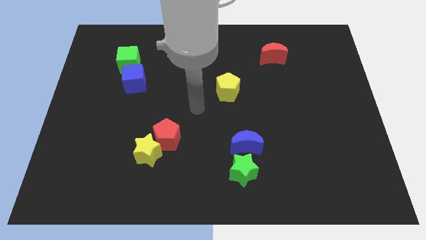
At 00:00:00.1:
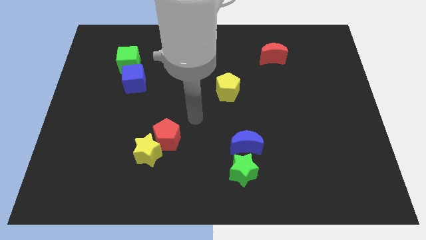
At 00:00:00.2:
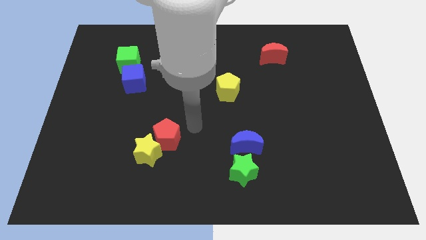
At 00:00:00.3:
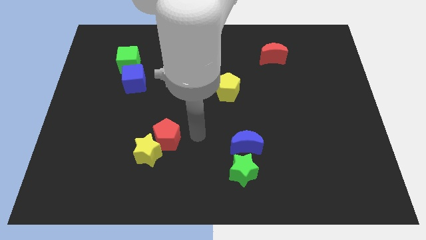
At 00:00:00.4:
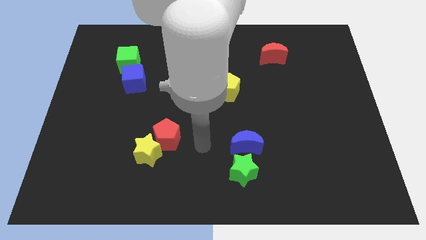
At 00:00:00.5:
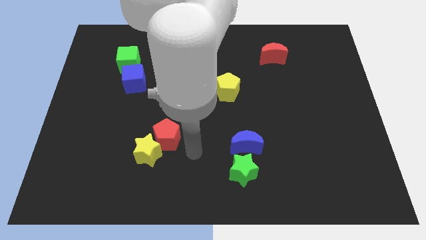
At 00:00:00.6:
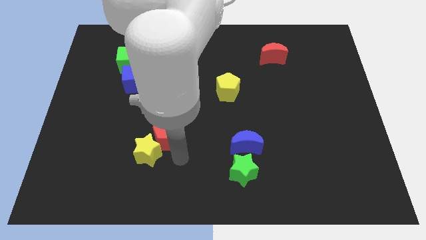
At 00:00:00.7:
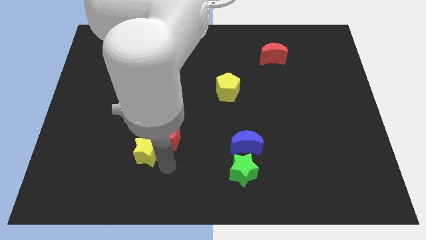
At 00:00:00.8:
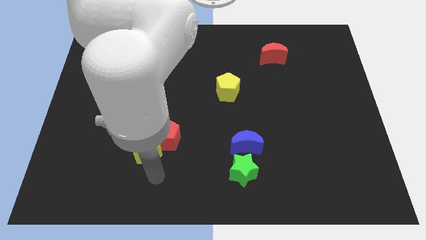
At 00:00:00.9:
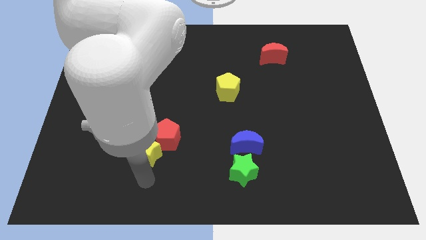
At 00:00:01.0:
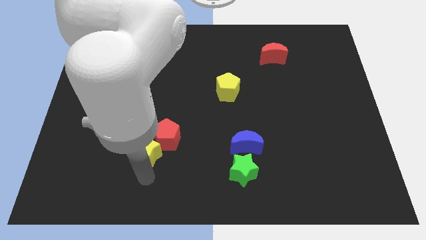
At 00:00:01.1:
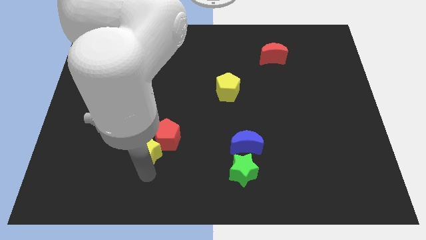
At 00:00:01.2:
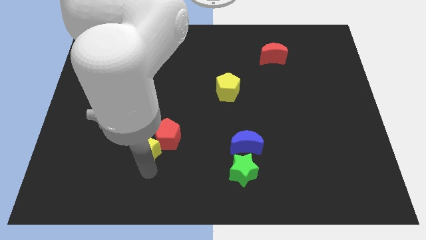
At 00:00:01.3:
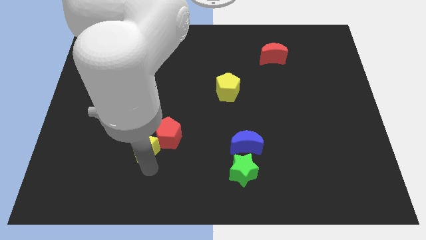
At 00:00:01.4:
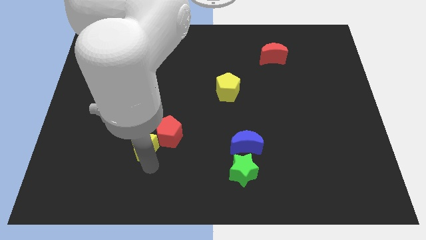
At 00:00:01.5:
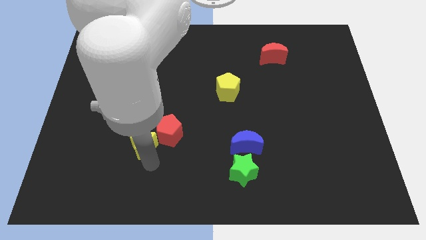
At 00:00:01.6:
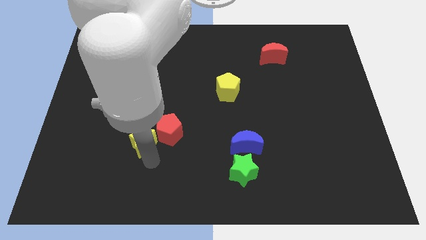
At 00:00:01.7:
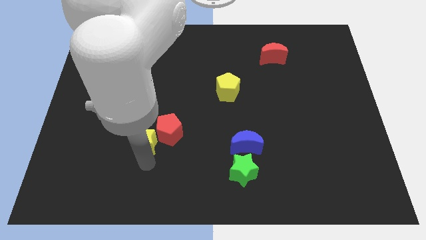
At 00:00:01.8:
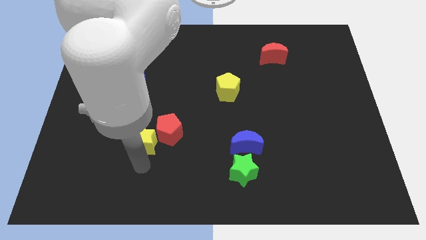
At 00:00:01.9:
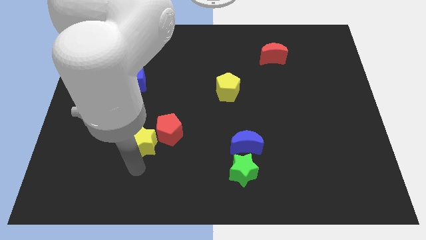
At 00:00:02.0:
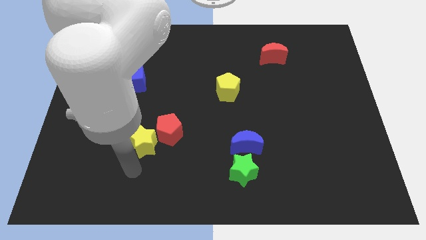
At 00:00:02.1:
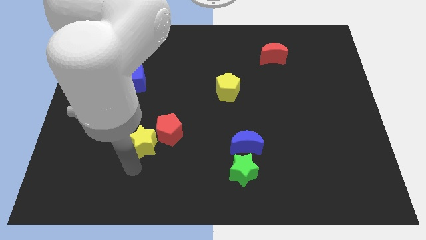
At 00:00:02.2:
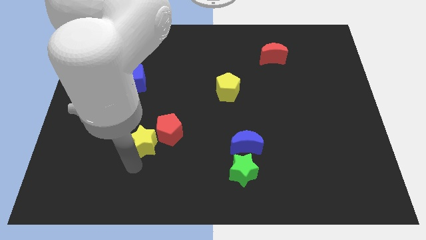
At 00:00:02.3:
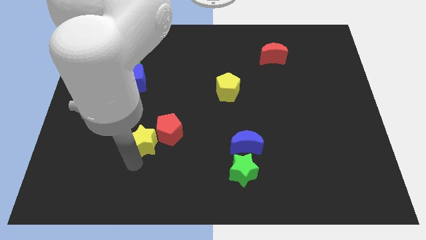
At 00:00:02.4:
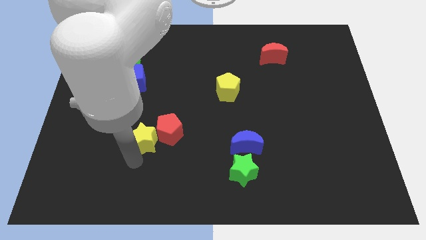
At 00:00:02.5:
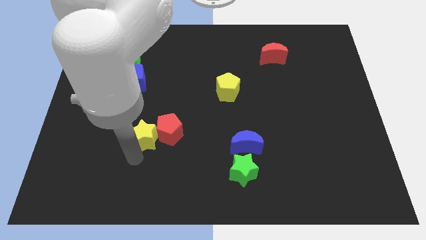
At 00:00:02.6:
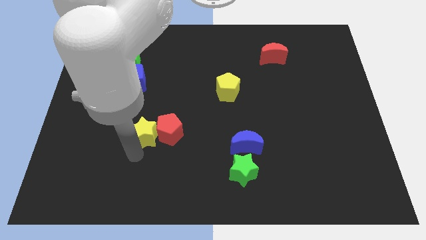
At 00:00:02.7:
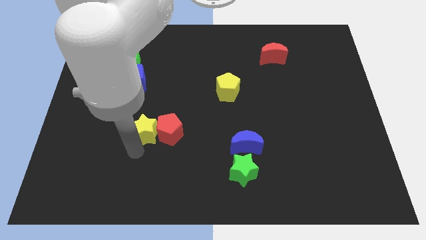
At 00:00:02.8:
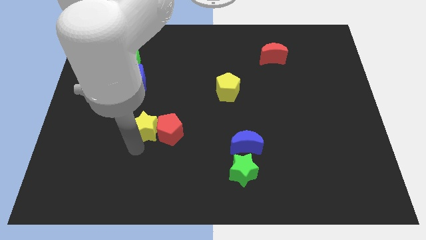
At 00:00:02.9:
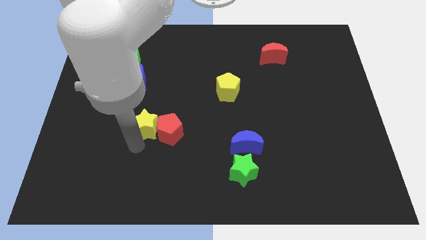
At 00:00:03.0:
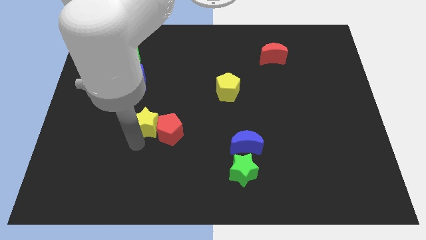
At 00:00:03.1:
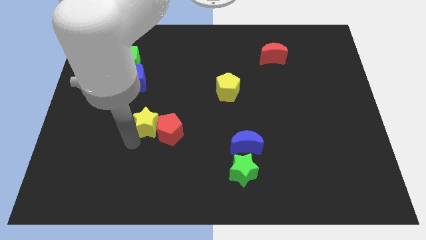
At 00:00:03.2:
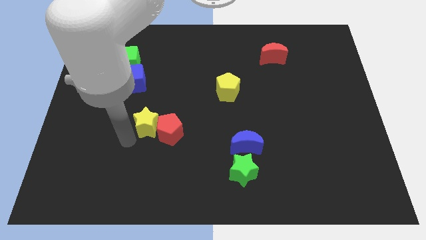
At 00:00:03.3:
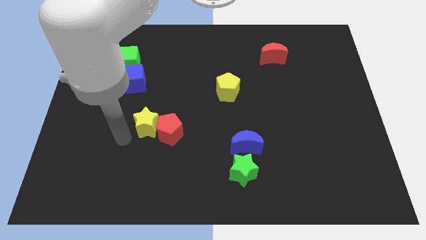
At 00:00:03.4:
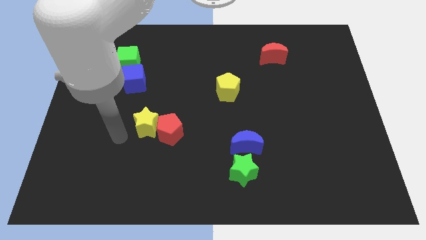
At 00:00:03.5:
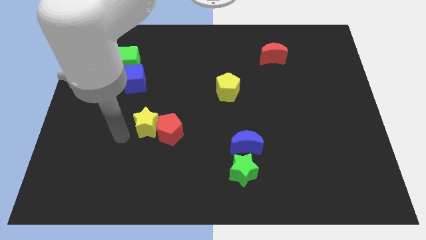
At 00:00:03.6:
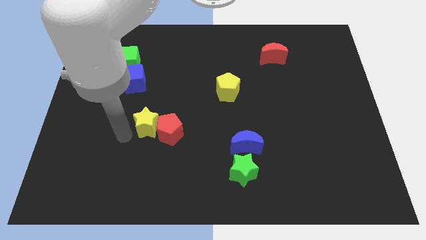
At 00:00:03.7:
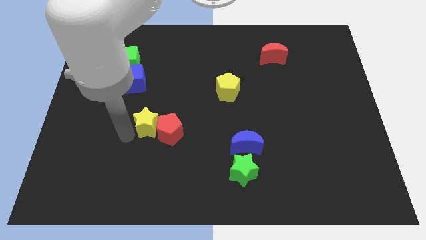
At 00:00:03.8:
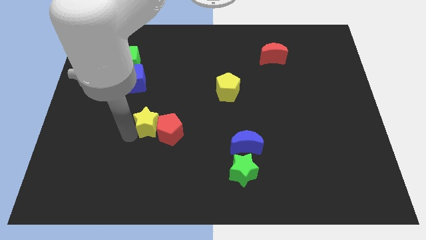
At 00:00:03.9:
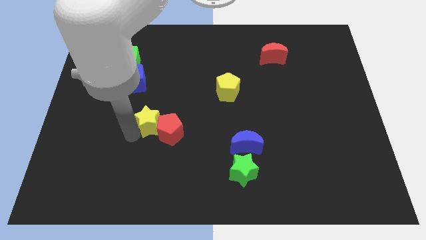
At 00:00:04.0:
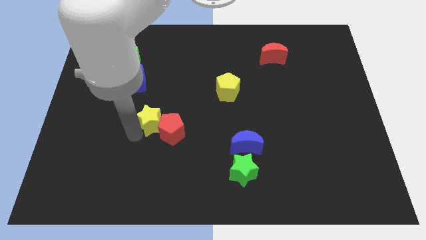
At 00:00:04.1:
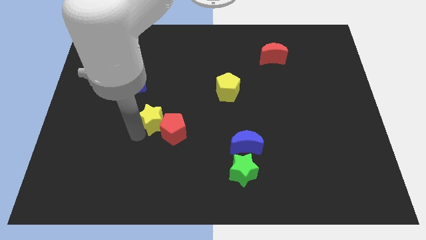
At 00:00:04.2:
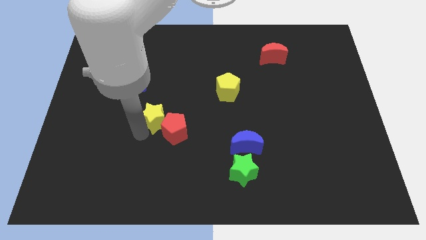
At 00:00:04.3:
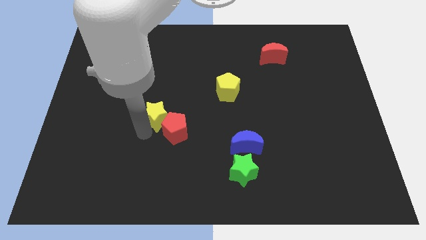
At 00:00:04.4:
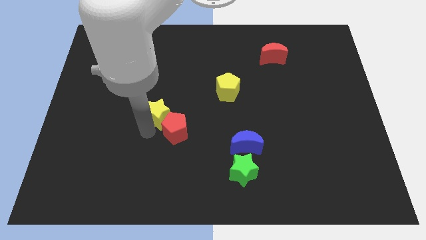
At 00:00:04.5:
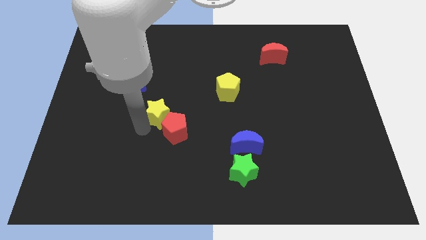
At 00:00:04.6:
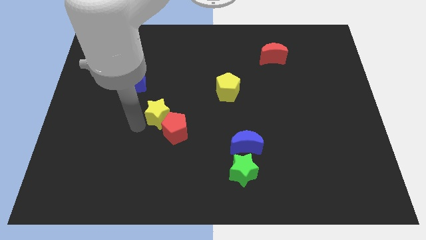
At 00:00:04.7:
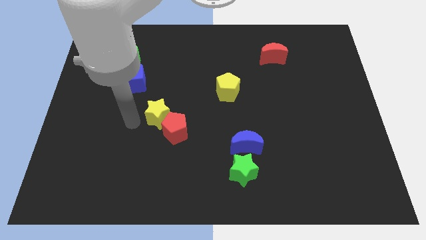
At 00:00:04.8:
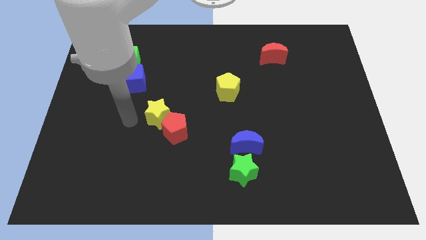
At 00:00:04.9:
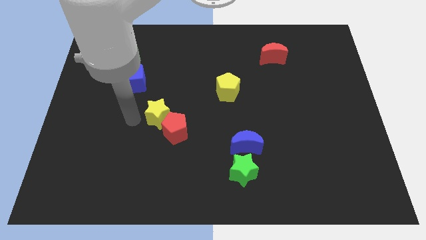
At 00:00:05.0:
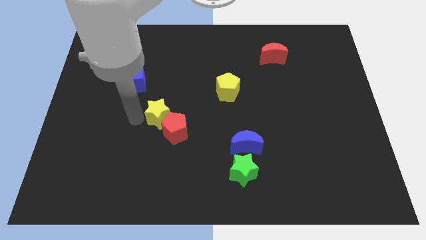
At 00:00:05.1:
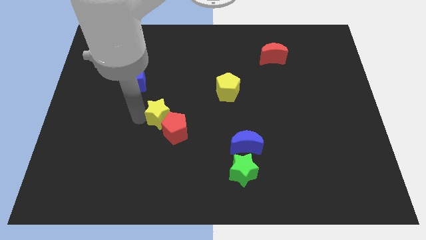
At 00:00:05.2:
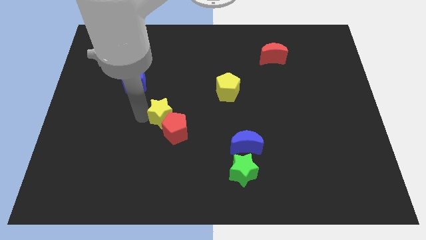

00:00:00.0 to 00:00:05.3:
slide the yellow star upwards and right diagonally somewhat

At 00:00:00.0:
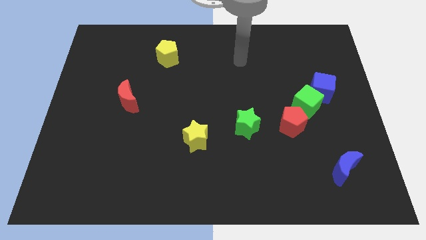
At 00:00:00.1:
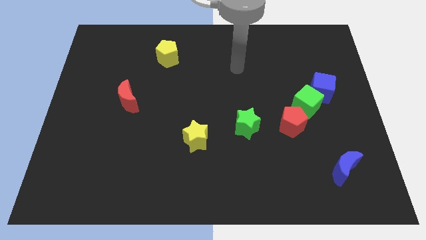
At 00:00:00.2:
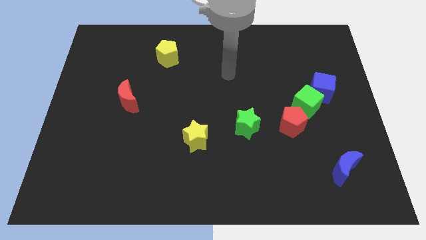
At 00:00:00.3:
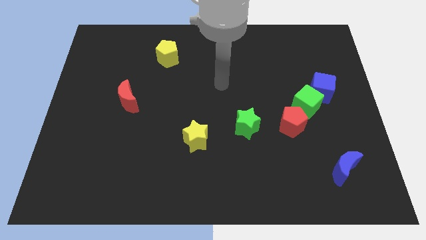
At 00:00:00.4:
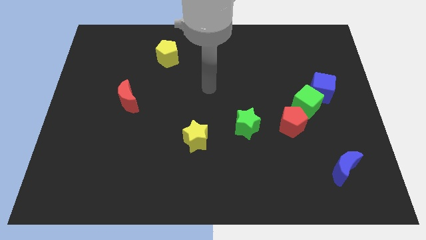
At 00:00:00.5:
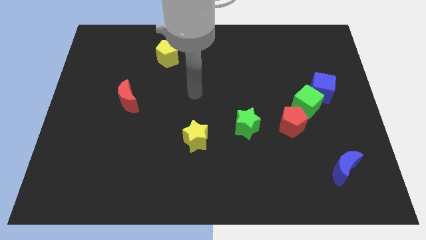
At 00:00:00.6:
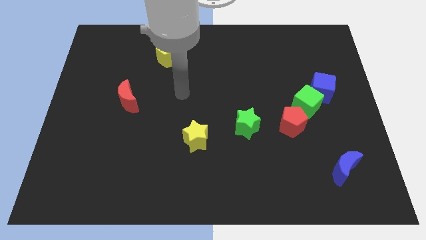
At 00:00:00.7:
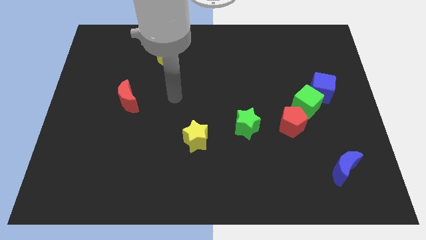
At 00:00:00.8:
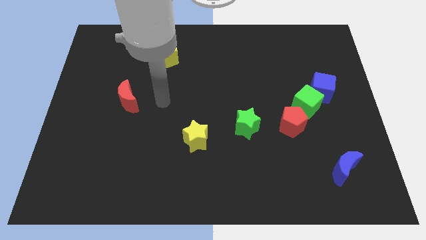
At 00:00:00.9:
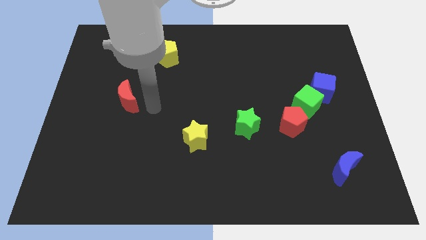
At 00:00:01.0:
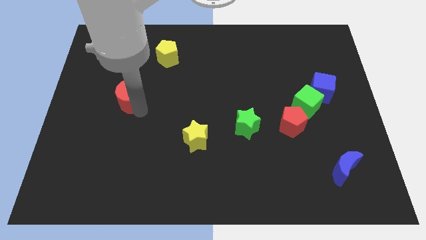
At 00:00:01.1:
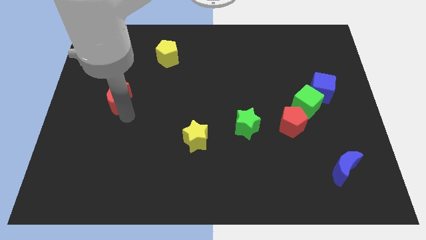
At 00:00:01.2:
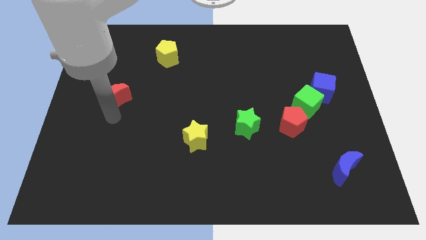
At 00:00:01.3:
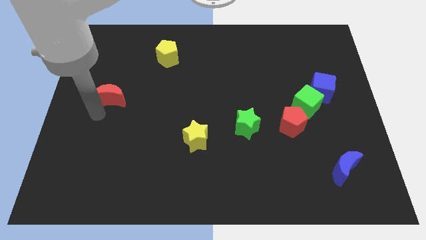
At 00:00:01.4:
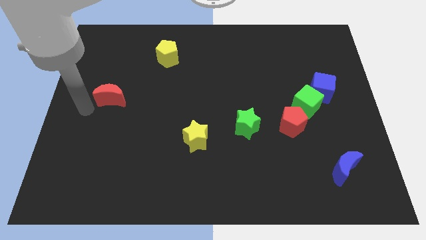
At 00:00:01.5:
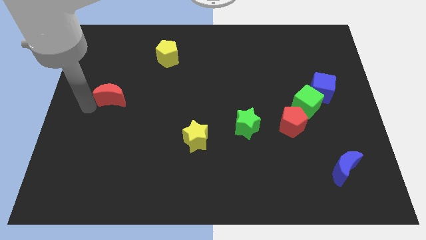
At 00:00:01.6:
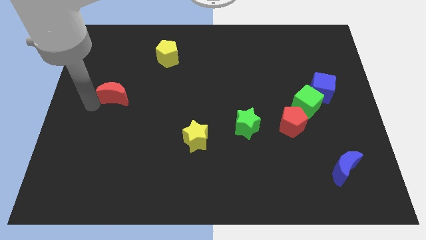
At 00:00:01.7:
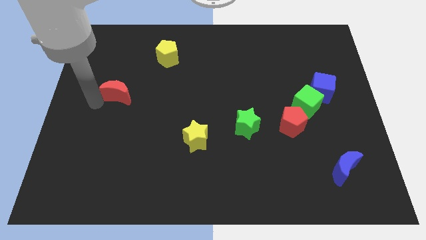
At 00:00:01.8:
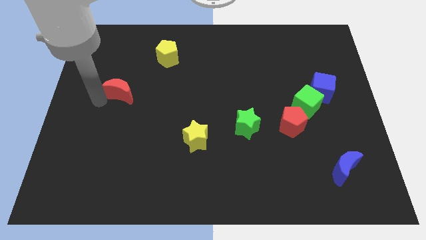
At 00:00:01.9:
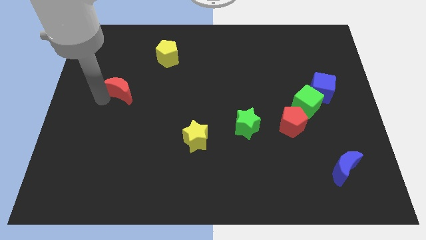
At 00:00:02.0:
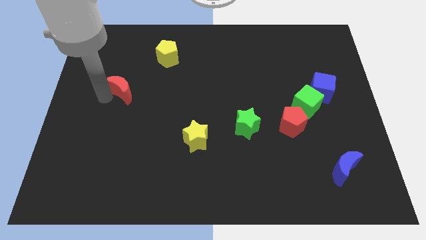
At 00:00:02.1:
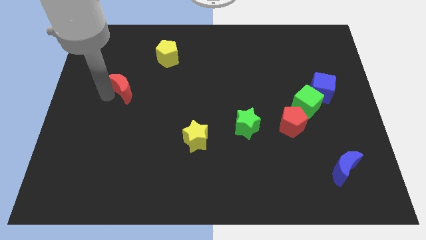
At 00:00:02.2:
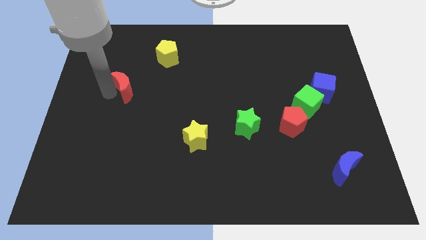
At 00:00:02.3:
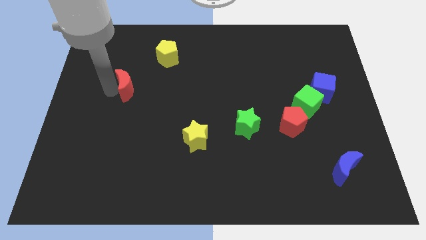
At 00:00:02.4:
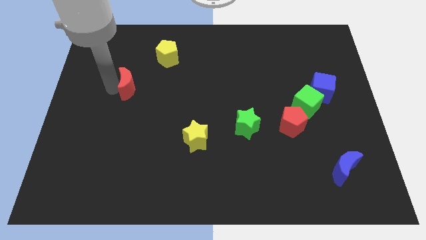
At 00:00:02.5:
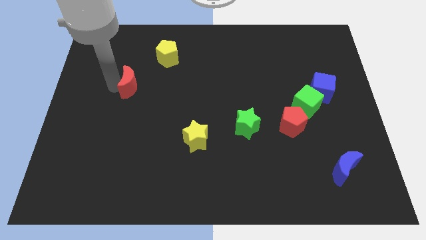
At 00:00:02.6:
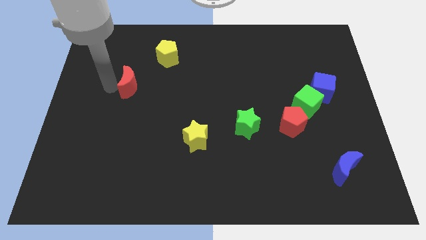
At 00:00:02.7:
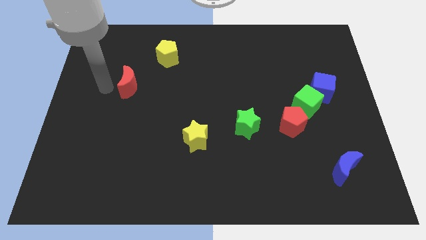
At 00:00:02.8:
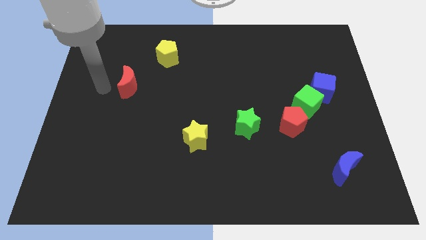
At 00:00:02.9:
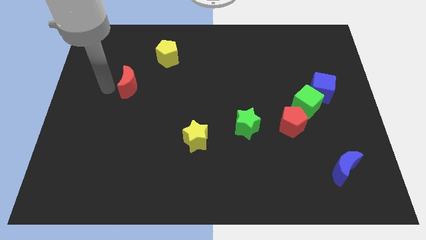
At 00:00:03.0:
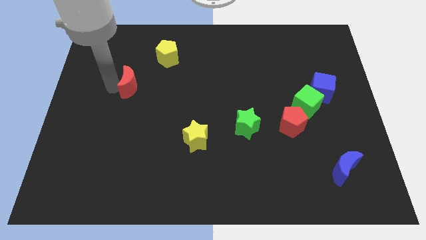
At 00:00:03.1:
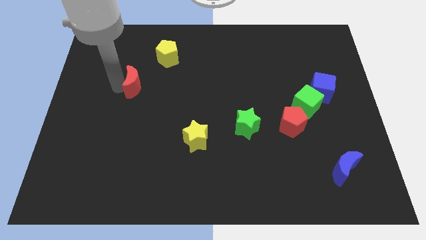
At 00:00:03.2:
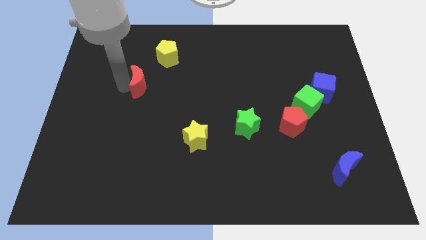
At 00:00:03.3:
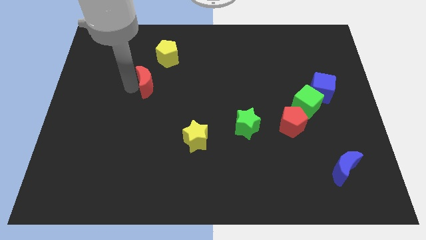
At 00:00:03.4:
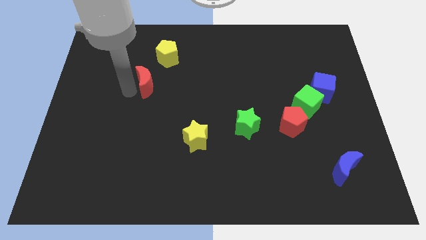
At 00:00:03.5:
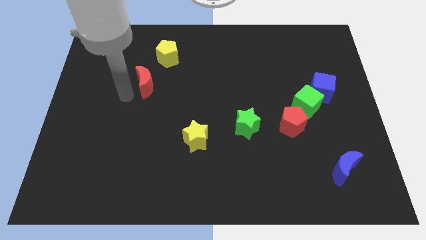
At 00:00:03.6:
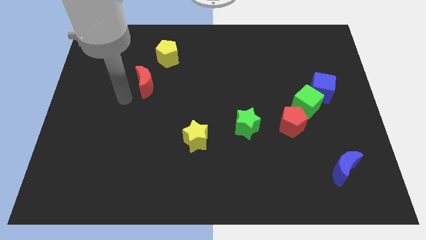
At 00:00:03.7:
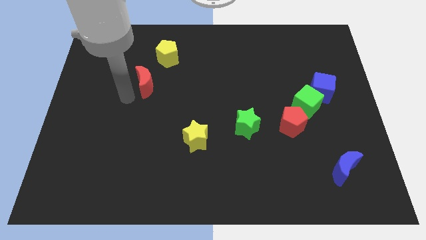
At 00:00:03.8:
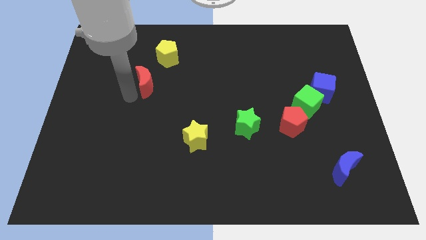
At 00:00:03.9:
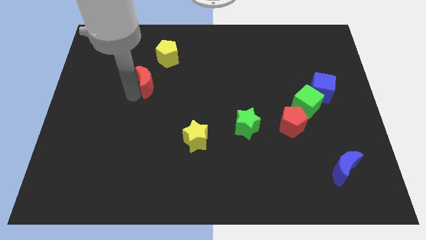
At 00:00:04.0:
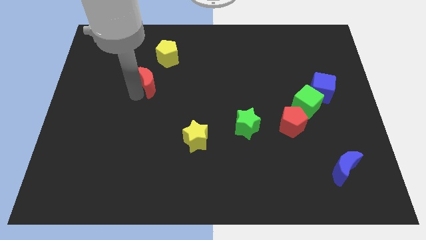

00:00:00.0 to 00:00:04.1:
move the red moon a bit up and to the right diagonally
